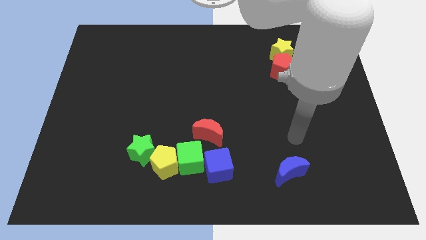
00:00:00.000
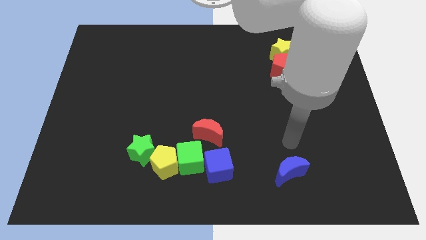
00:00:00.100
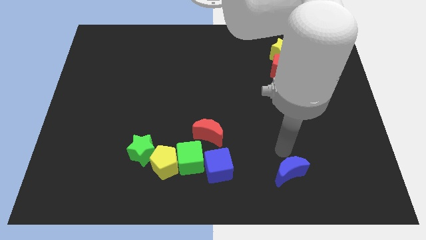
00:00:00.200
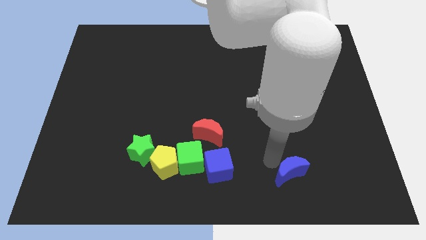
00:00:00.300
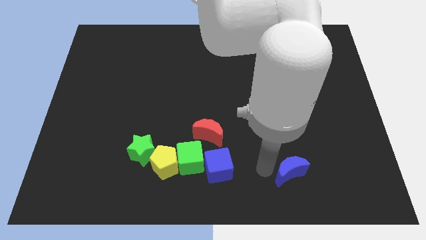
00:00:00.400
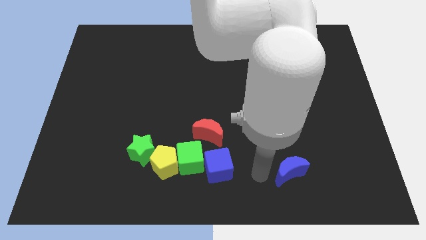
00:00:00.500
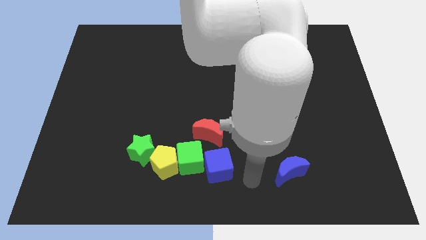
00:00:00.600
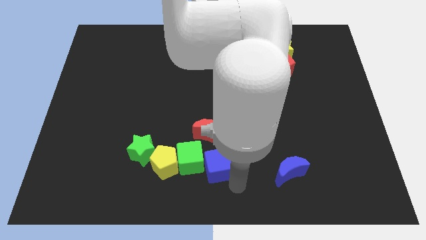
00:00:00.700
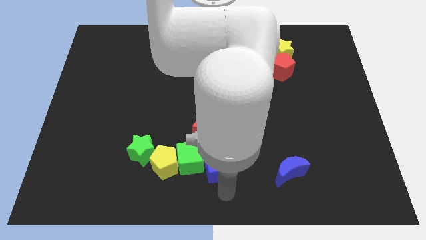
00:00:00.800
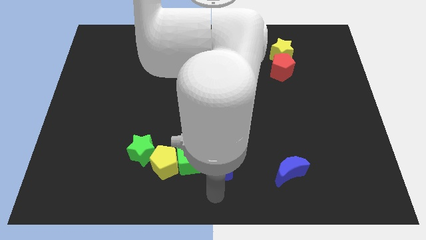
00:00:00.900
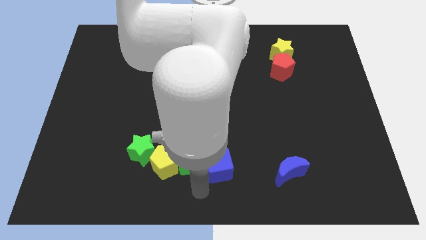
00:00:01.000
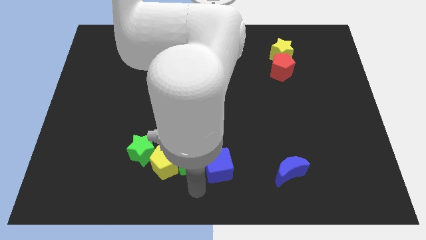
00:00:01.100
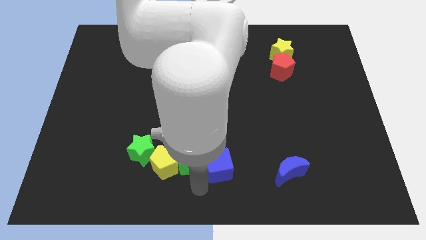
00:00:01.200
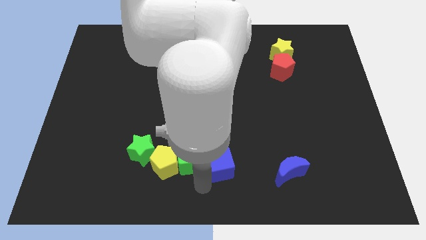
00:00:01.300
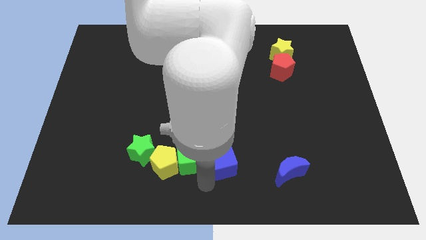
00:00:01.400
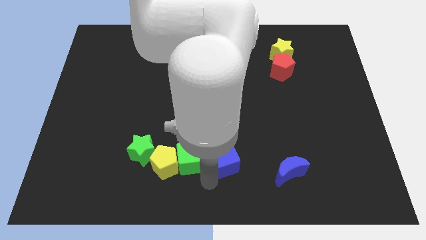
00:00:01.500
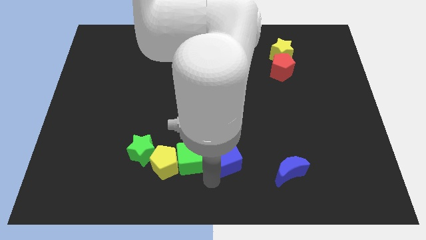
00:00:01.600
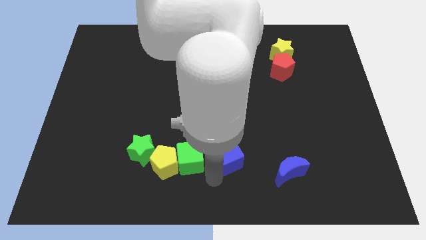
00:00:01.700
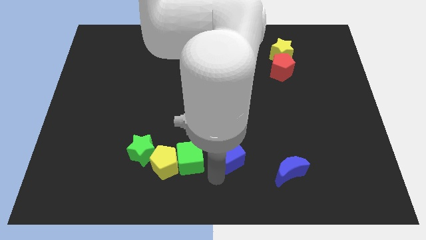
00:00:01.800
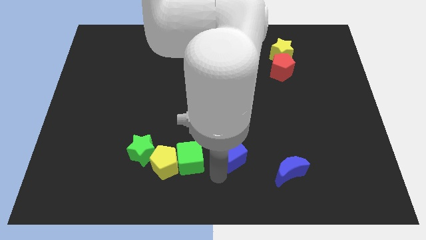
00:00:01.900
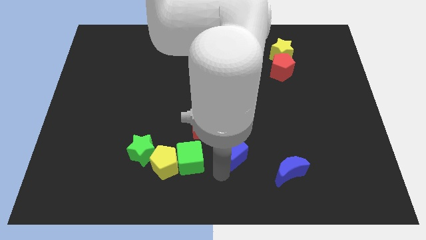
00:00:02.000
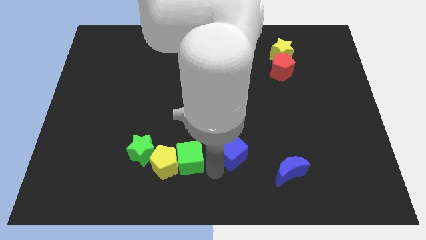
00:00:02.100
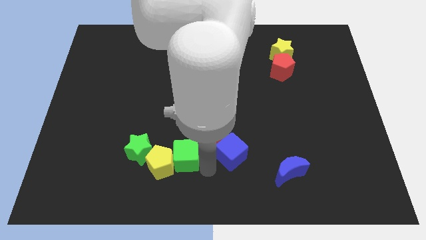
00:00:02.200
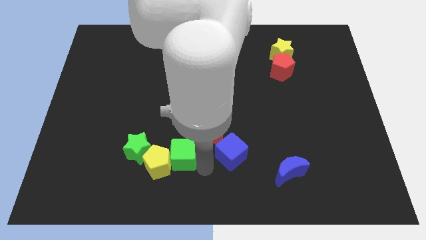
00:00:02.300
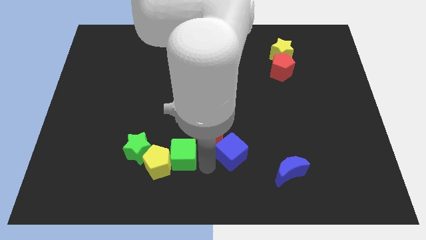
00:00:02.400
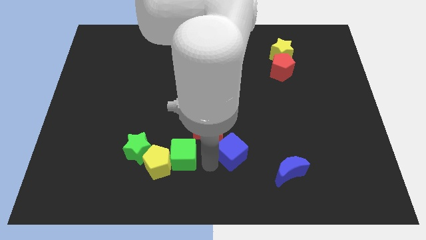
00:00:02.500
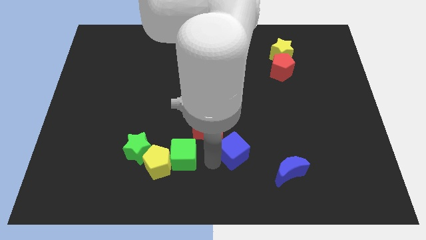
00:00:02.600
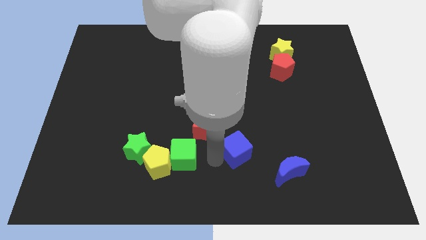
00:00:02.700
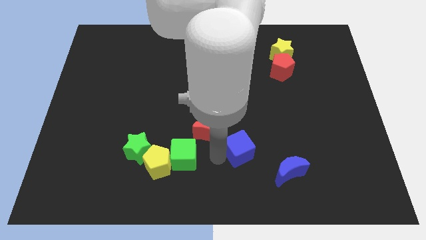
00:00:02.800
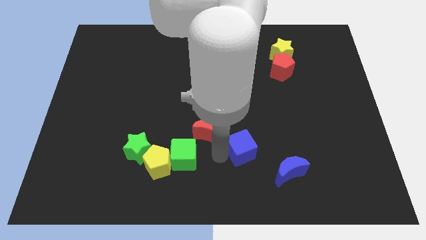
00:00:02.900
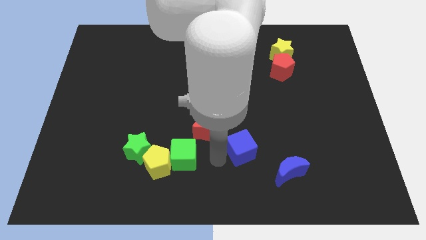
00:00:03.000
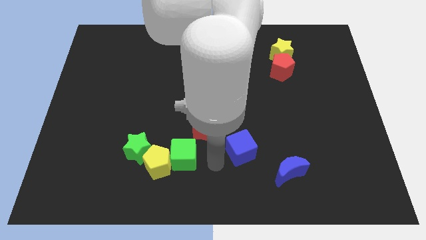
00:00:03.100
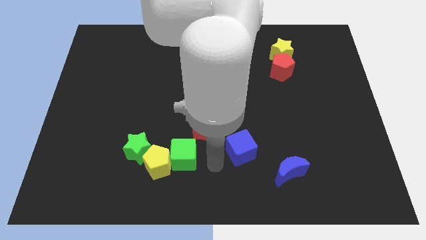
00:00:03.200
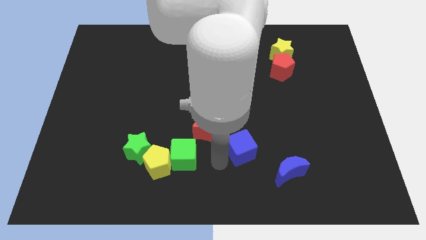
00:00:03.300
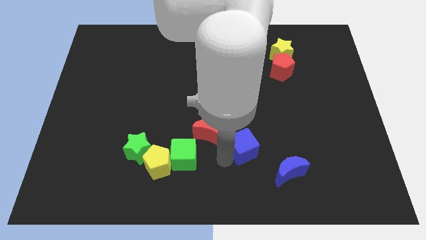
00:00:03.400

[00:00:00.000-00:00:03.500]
move the blue cube a bit diagonally up and right

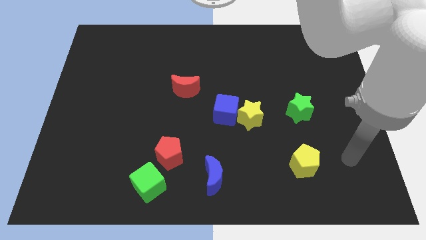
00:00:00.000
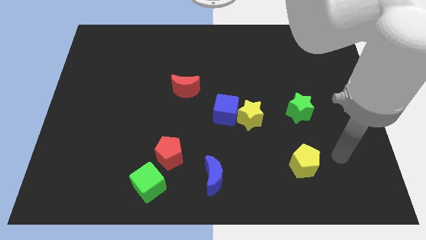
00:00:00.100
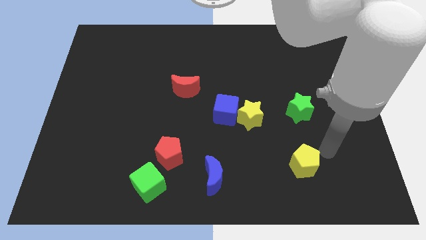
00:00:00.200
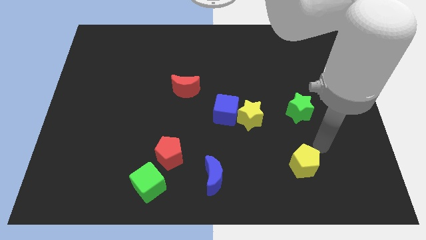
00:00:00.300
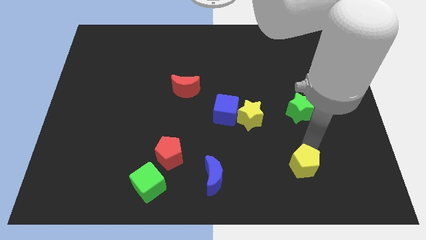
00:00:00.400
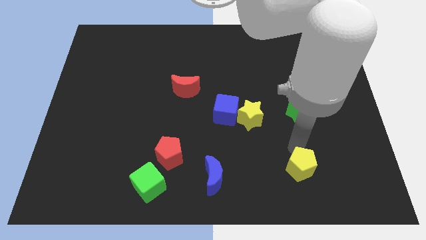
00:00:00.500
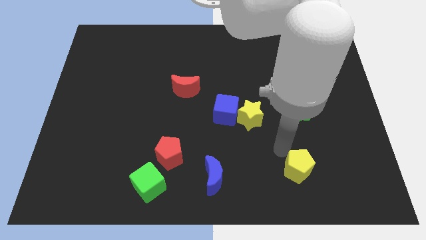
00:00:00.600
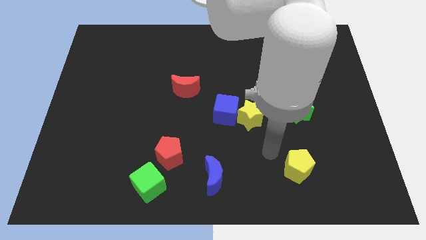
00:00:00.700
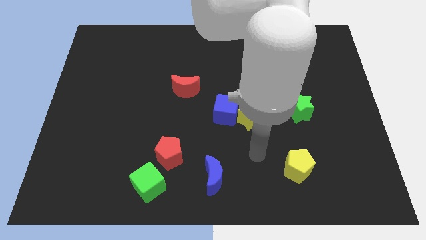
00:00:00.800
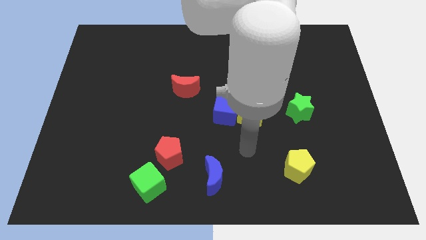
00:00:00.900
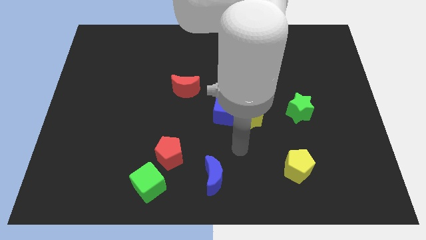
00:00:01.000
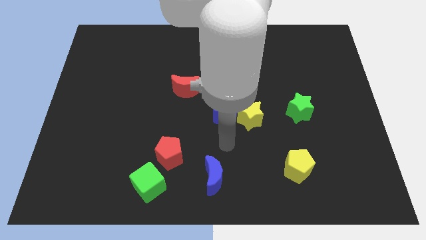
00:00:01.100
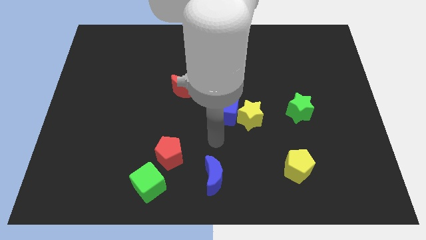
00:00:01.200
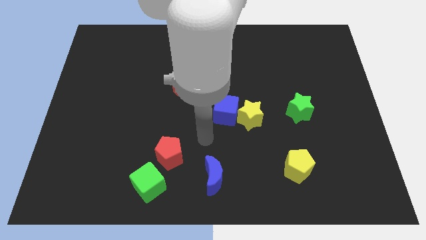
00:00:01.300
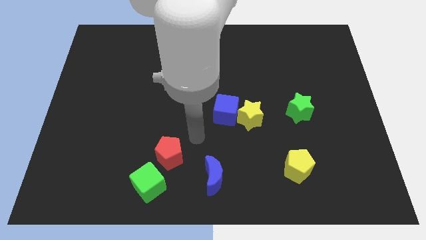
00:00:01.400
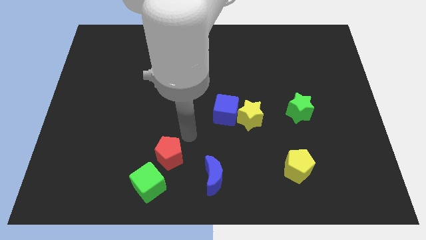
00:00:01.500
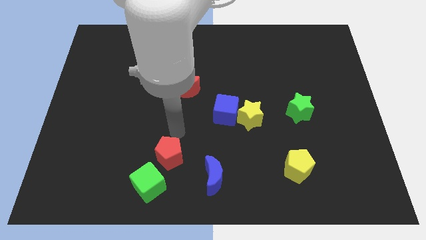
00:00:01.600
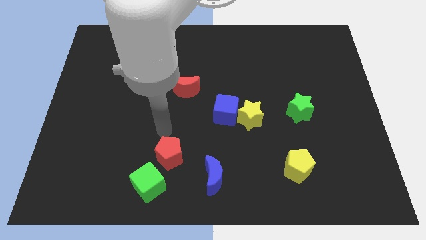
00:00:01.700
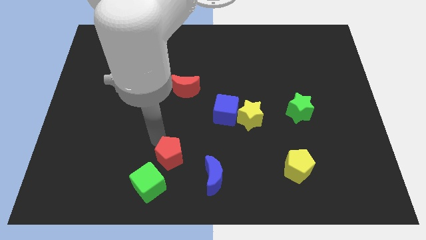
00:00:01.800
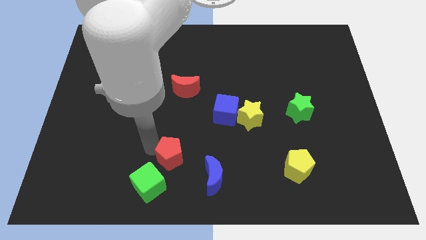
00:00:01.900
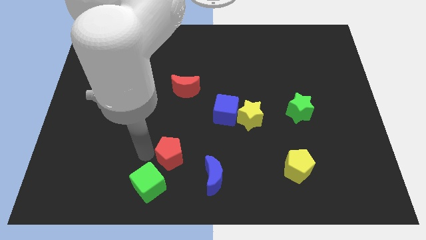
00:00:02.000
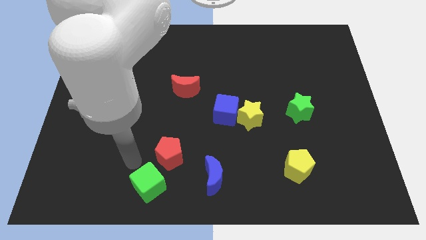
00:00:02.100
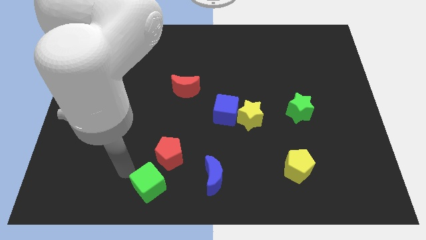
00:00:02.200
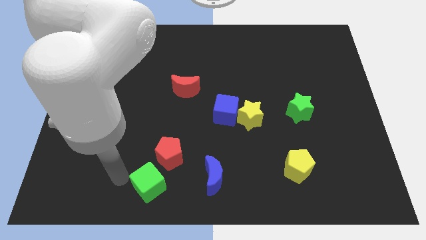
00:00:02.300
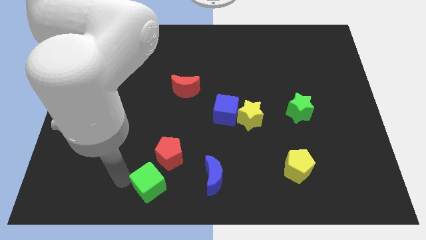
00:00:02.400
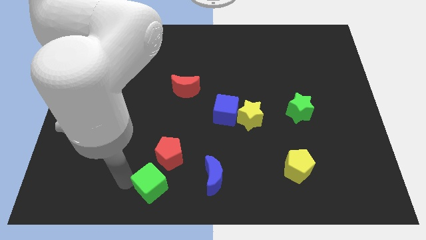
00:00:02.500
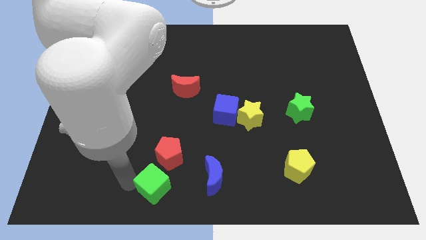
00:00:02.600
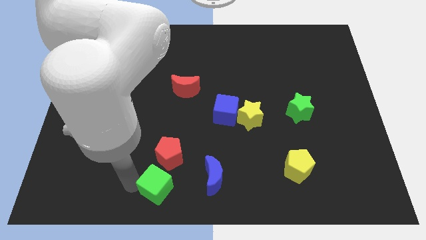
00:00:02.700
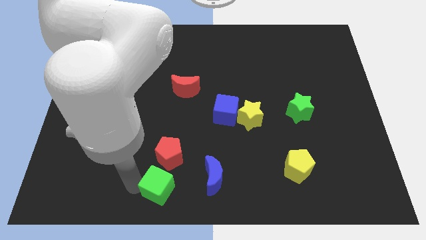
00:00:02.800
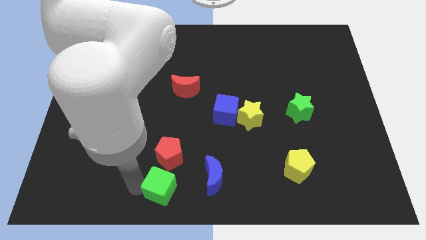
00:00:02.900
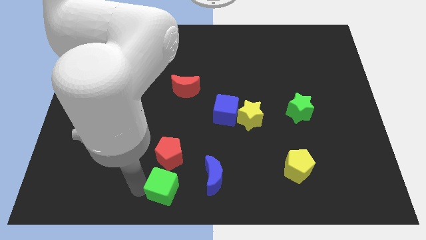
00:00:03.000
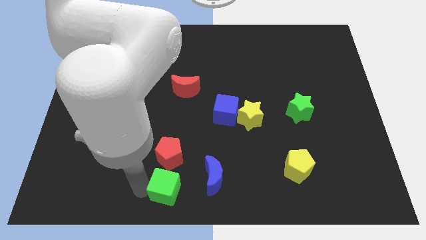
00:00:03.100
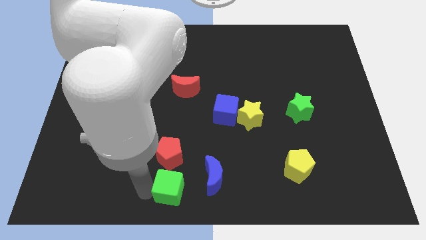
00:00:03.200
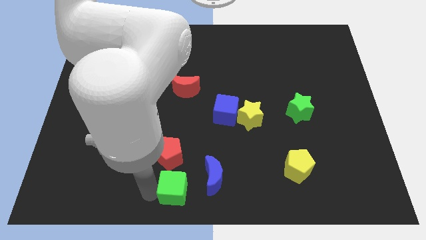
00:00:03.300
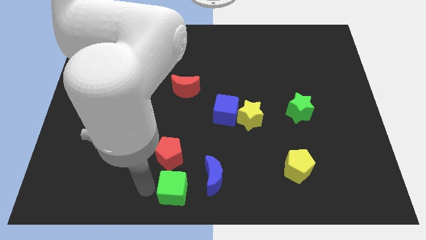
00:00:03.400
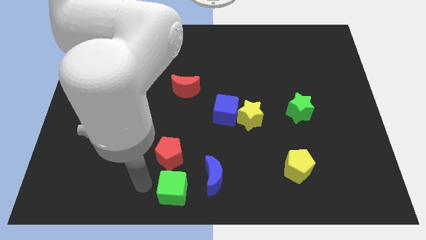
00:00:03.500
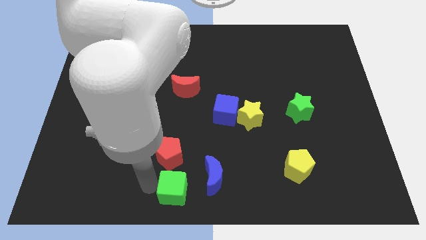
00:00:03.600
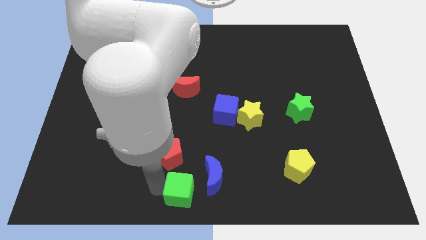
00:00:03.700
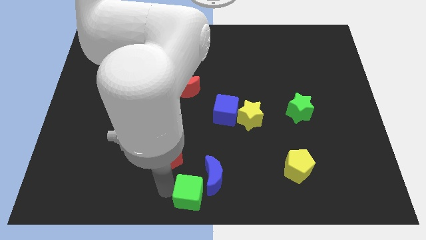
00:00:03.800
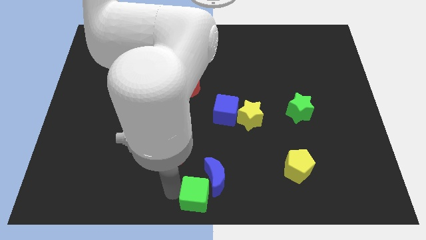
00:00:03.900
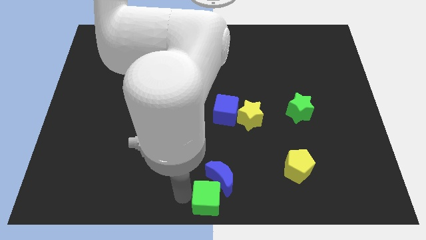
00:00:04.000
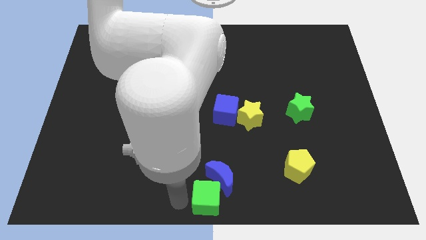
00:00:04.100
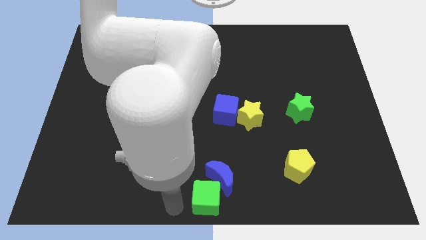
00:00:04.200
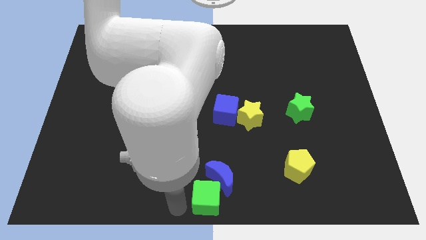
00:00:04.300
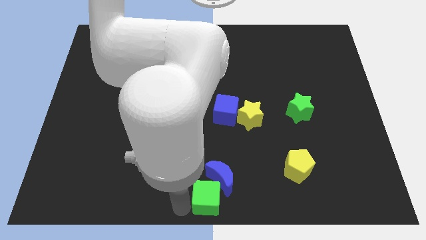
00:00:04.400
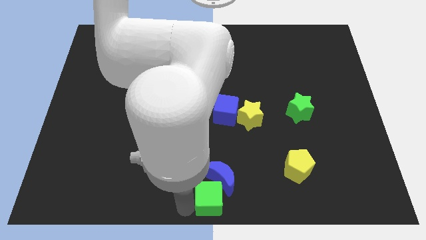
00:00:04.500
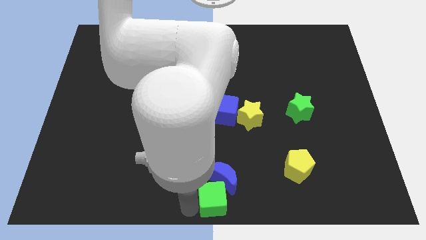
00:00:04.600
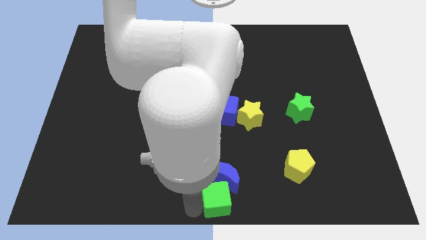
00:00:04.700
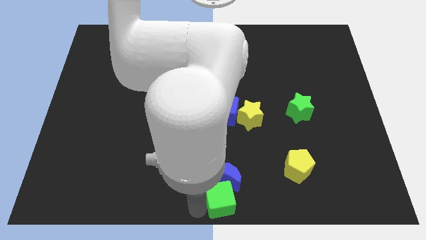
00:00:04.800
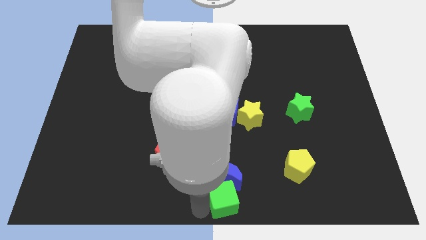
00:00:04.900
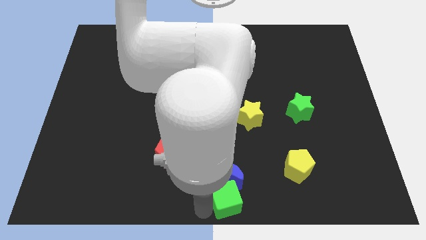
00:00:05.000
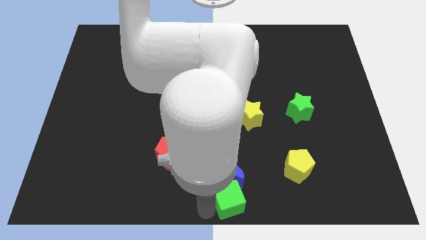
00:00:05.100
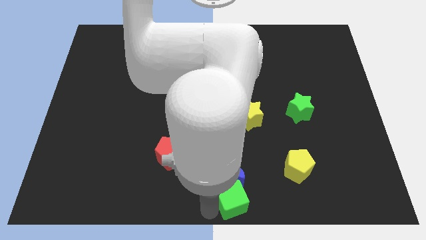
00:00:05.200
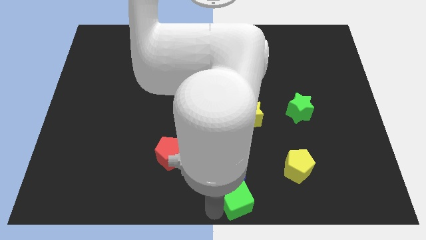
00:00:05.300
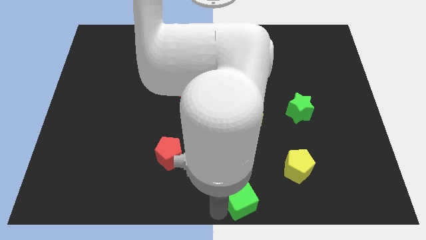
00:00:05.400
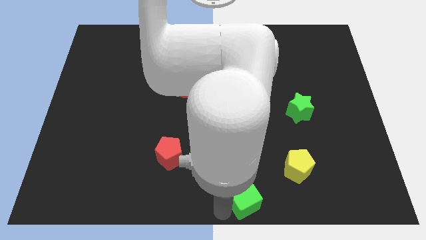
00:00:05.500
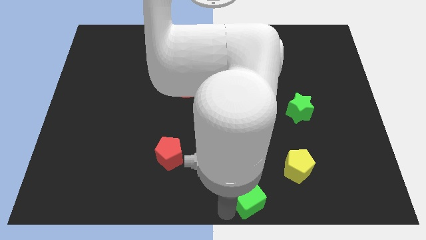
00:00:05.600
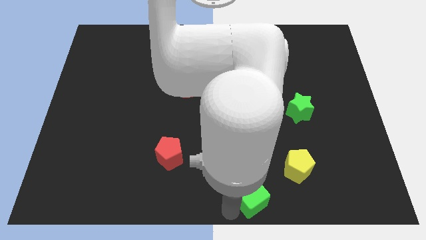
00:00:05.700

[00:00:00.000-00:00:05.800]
slide the green cube to the right
